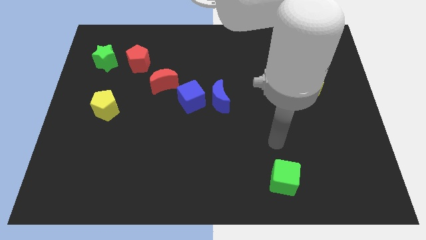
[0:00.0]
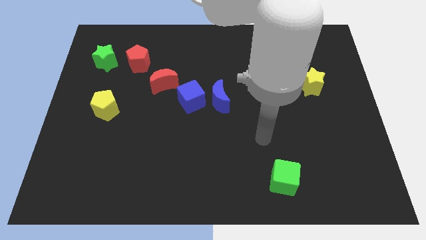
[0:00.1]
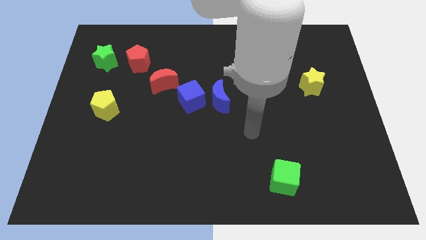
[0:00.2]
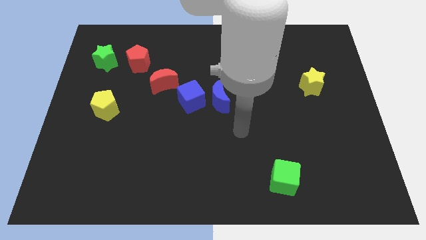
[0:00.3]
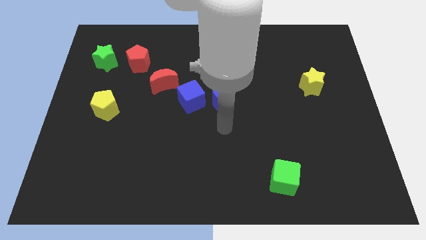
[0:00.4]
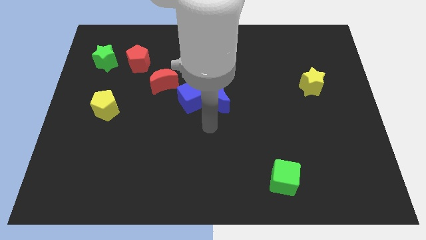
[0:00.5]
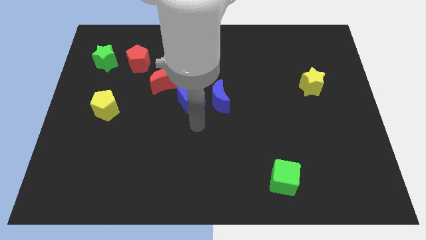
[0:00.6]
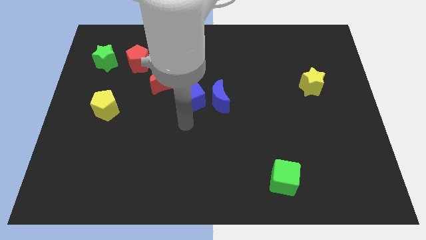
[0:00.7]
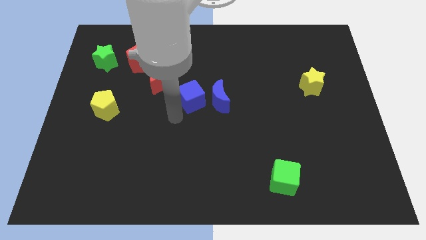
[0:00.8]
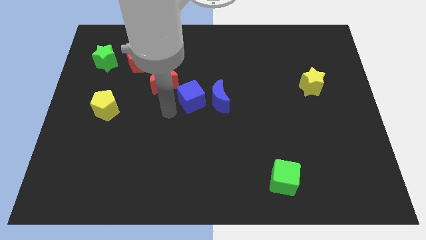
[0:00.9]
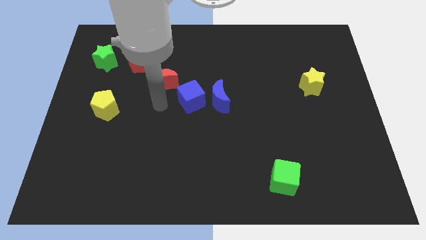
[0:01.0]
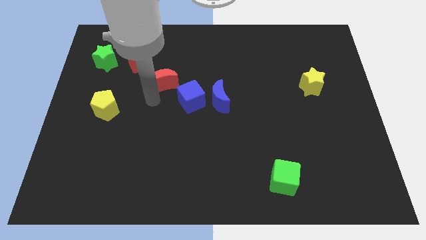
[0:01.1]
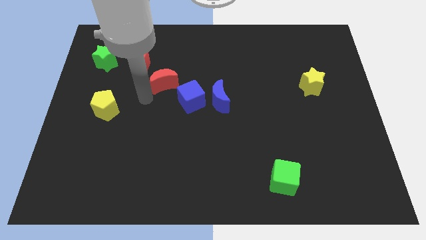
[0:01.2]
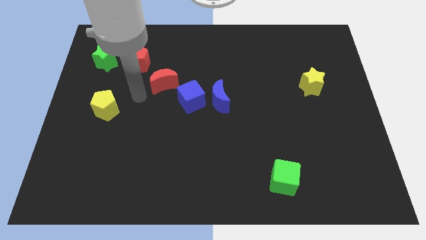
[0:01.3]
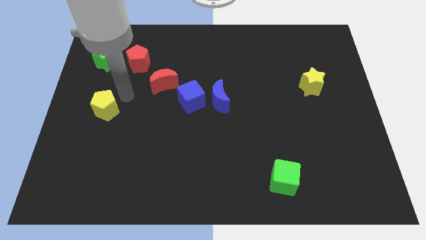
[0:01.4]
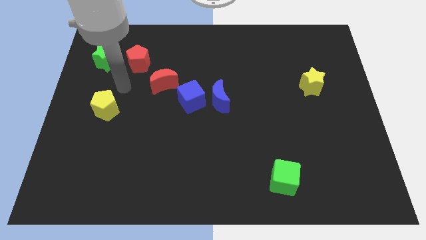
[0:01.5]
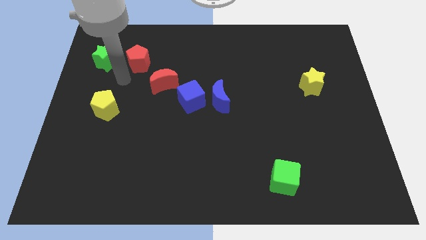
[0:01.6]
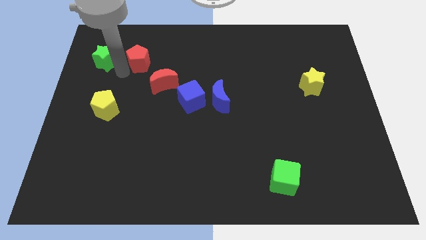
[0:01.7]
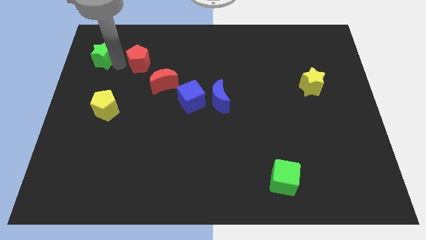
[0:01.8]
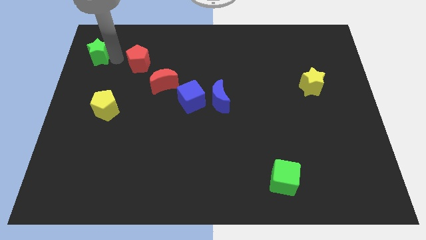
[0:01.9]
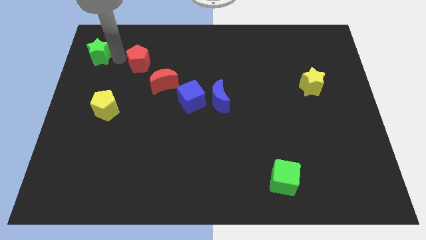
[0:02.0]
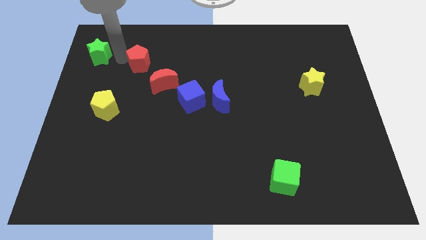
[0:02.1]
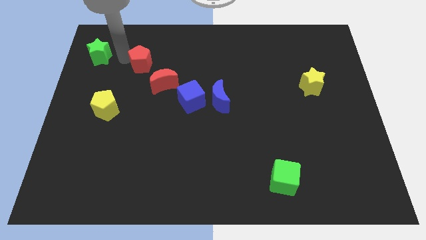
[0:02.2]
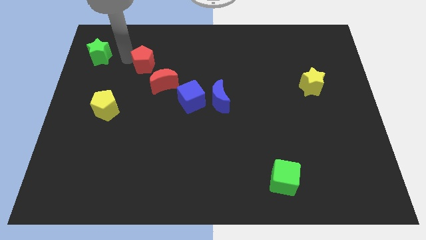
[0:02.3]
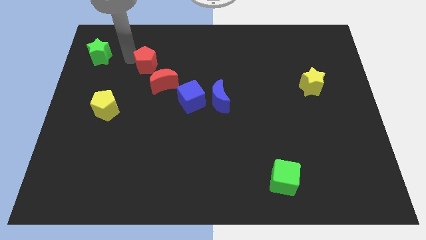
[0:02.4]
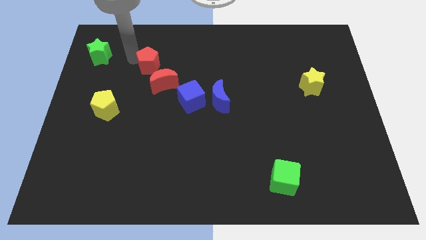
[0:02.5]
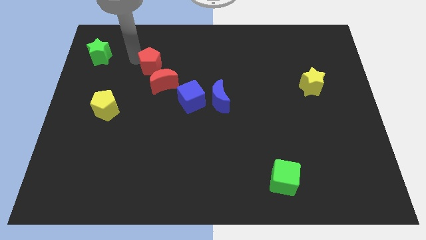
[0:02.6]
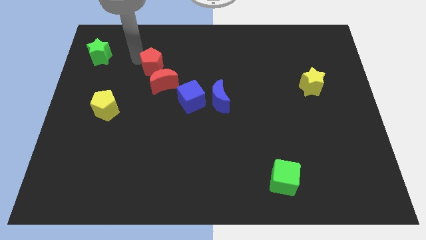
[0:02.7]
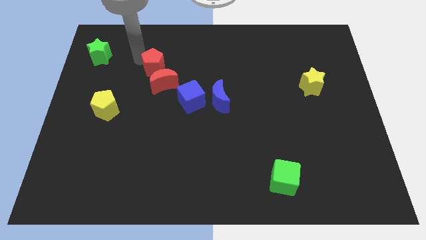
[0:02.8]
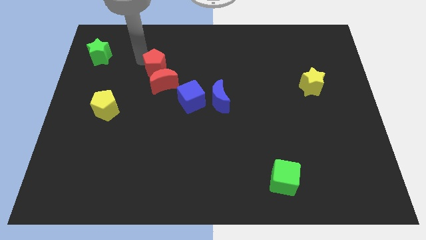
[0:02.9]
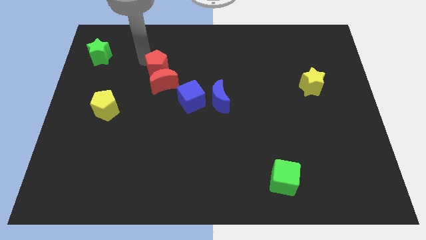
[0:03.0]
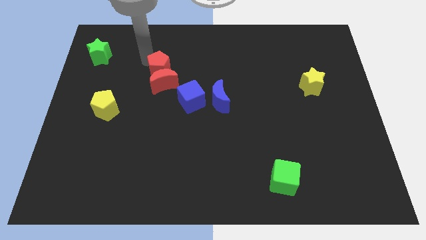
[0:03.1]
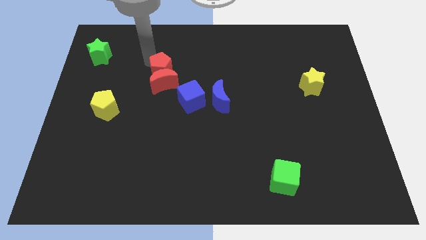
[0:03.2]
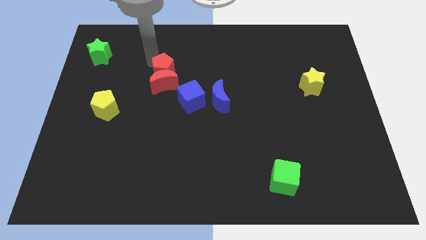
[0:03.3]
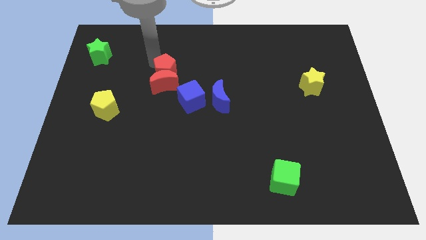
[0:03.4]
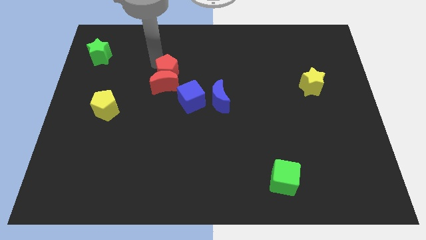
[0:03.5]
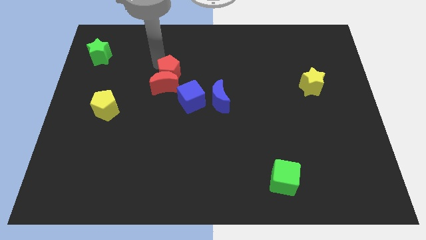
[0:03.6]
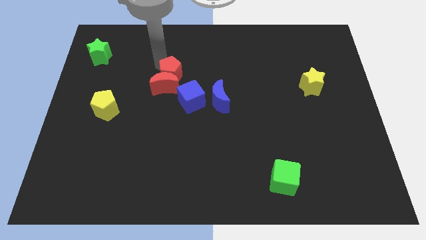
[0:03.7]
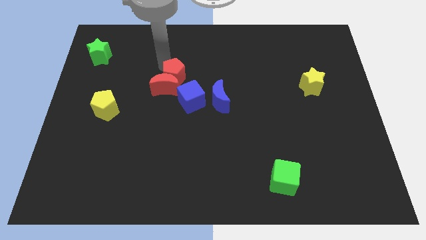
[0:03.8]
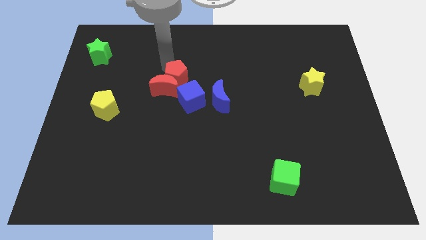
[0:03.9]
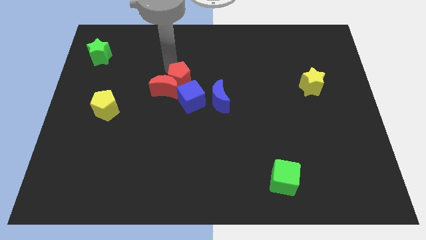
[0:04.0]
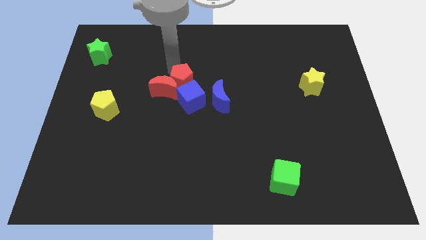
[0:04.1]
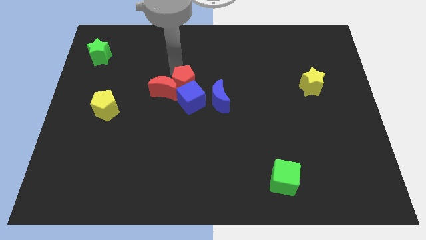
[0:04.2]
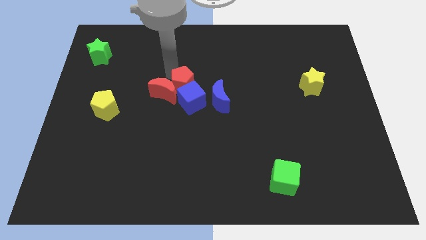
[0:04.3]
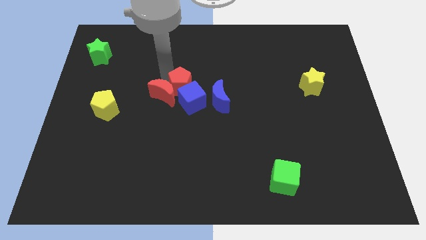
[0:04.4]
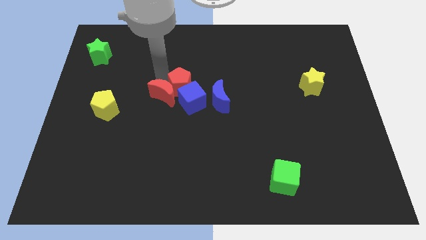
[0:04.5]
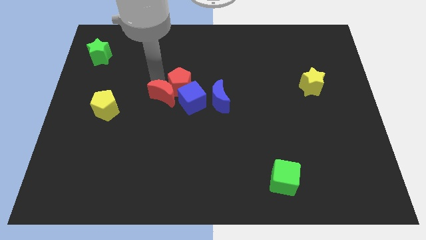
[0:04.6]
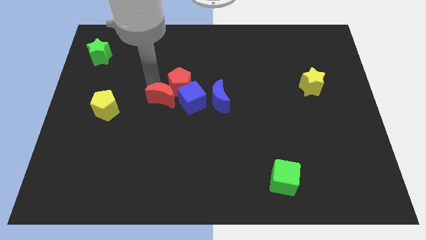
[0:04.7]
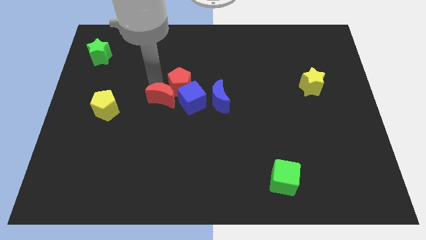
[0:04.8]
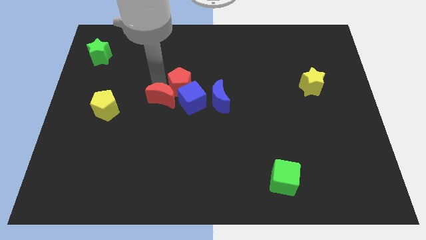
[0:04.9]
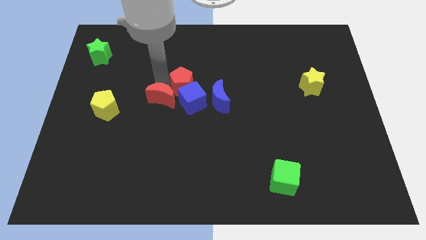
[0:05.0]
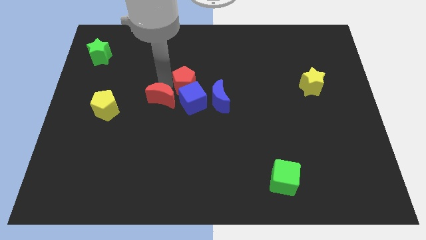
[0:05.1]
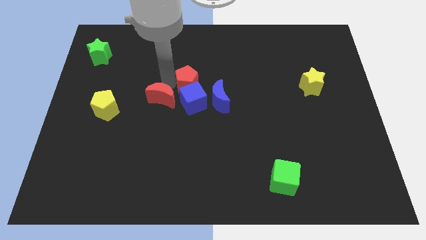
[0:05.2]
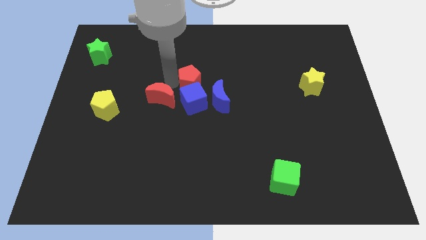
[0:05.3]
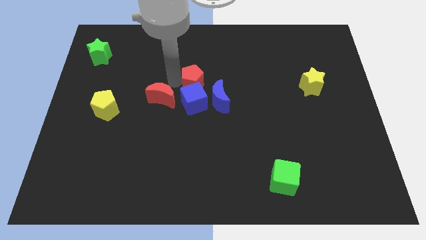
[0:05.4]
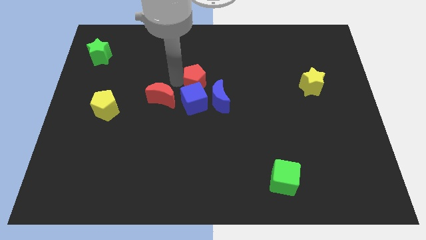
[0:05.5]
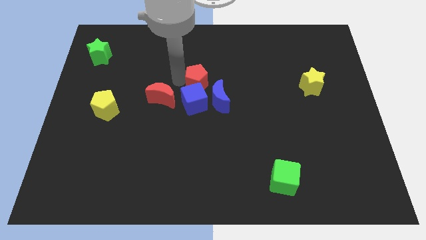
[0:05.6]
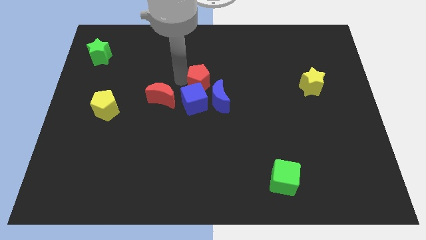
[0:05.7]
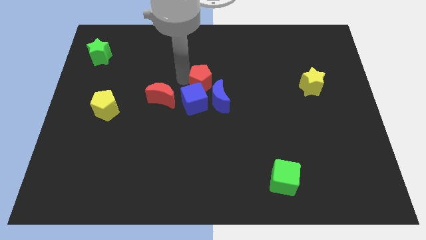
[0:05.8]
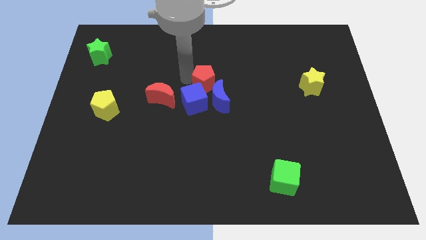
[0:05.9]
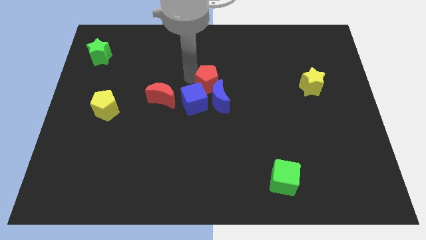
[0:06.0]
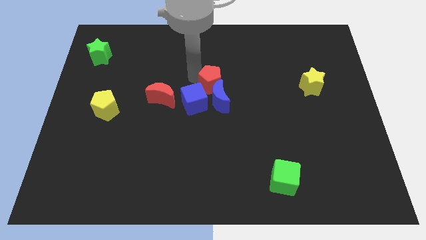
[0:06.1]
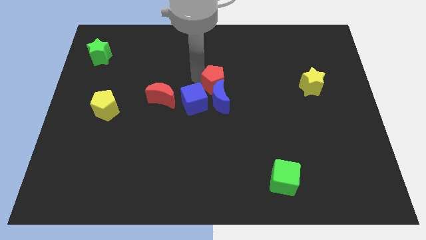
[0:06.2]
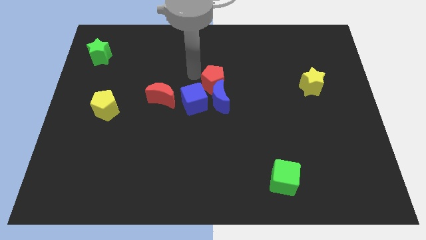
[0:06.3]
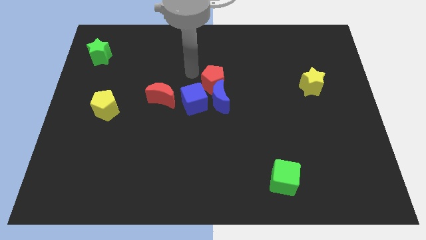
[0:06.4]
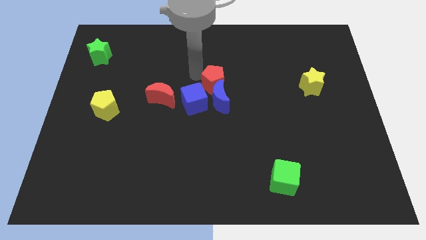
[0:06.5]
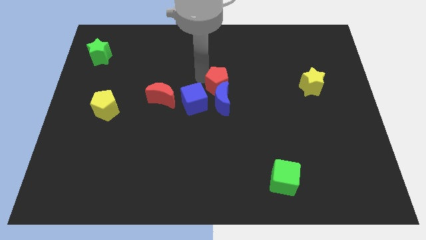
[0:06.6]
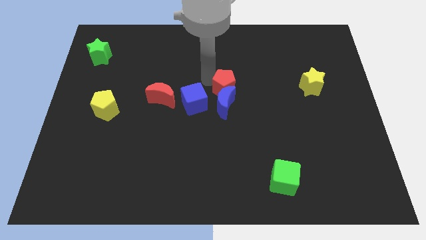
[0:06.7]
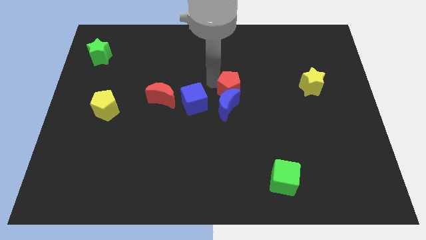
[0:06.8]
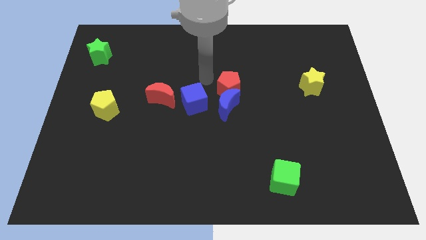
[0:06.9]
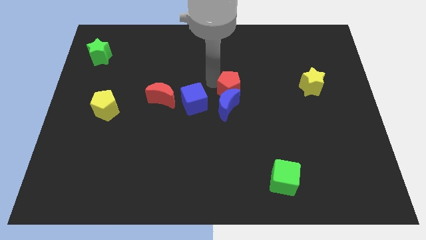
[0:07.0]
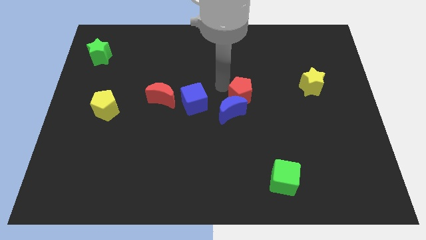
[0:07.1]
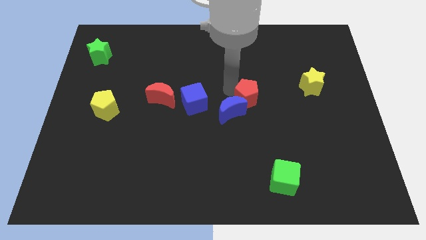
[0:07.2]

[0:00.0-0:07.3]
slide the red pentagon to the right of the blue moon

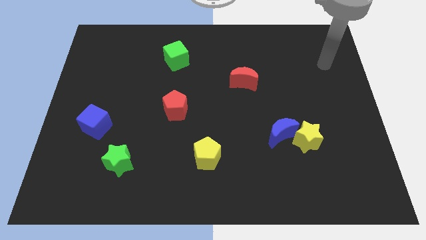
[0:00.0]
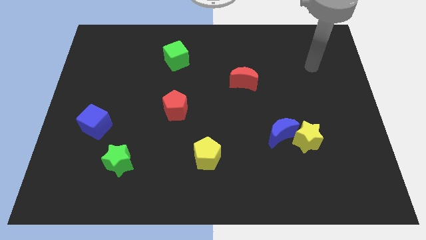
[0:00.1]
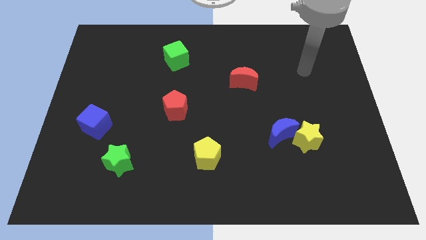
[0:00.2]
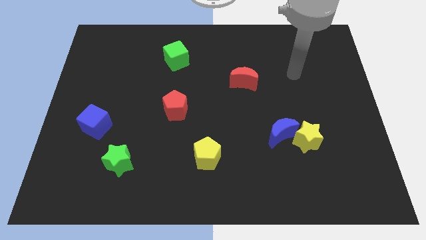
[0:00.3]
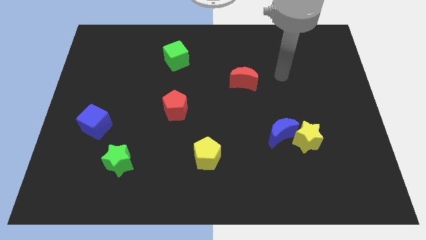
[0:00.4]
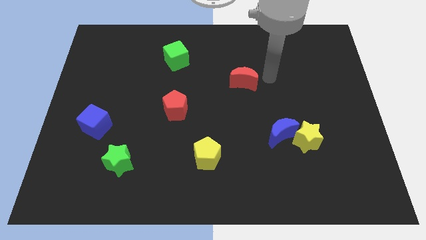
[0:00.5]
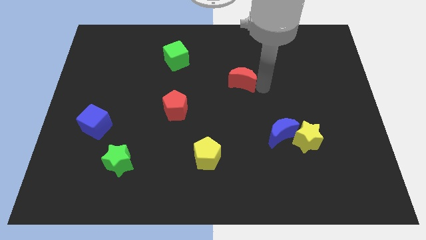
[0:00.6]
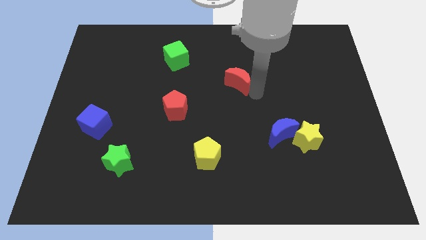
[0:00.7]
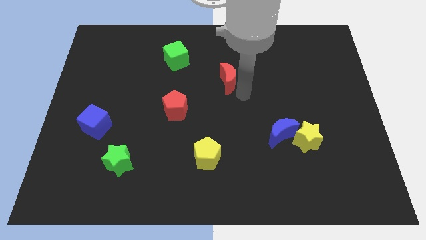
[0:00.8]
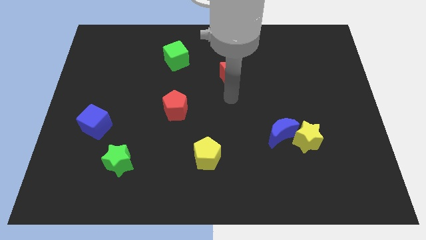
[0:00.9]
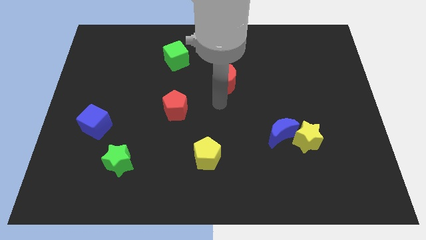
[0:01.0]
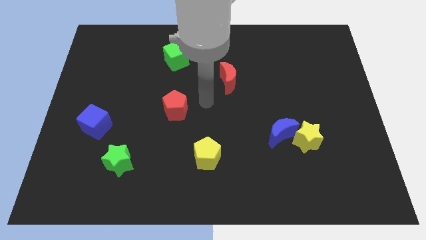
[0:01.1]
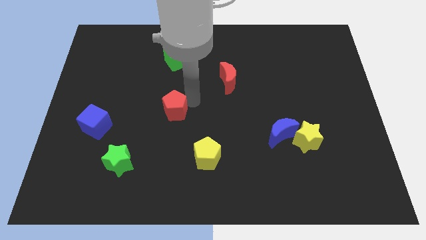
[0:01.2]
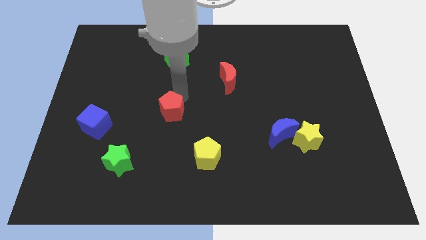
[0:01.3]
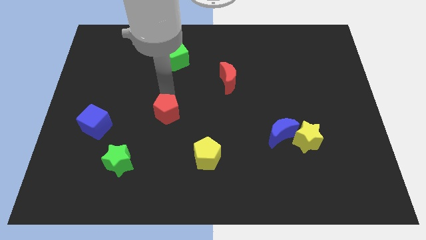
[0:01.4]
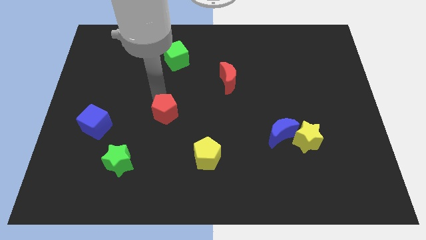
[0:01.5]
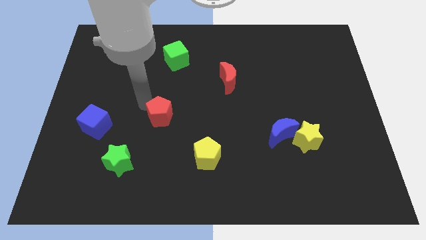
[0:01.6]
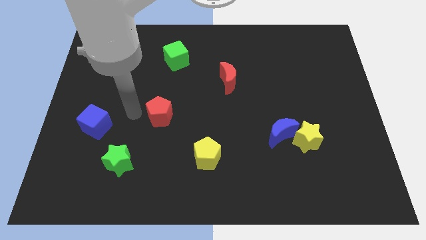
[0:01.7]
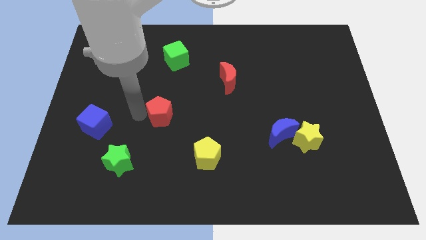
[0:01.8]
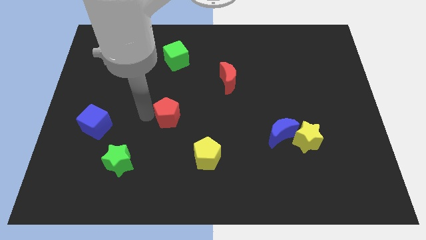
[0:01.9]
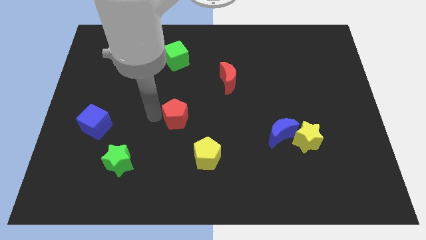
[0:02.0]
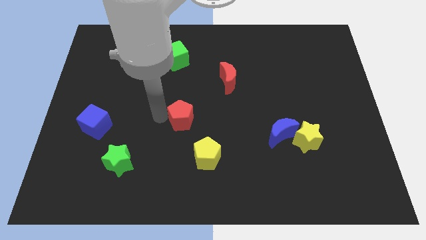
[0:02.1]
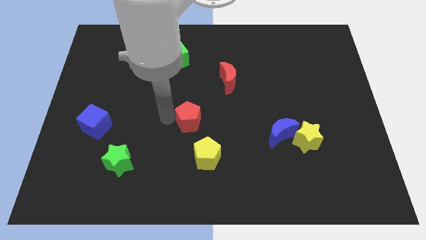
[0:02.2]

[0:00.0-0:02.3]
move the red pentagon to the top of the yellow pentagon
